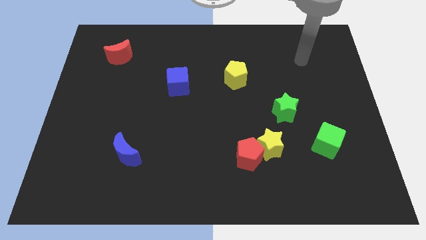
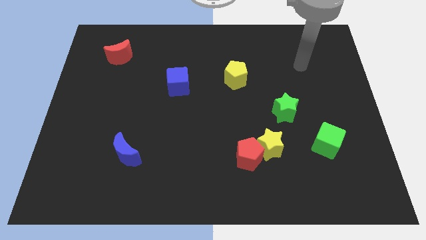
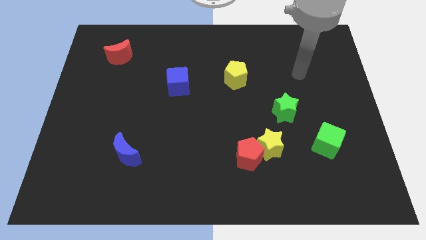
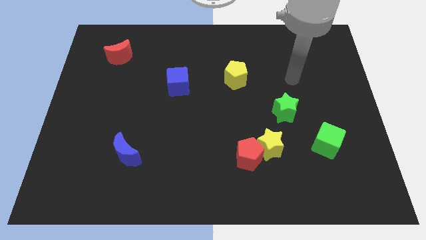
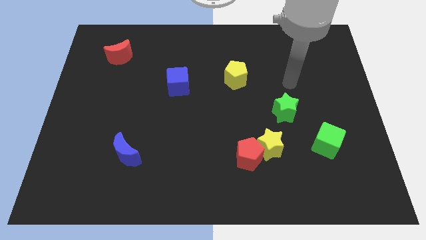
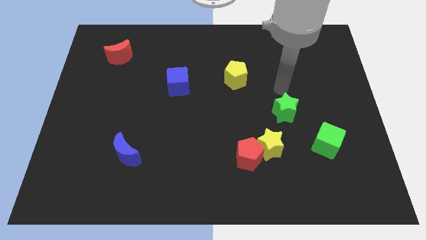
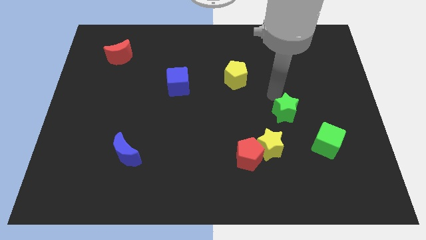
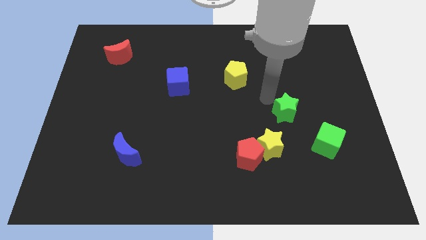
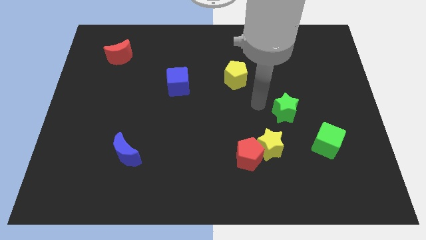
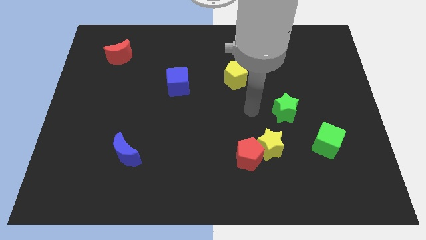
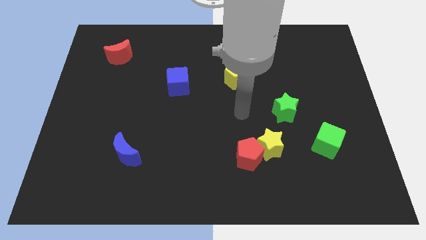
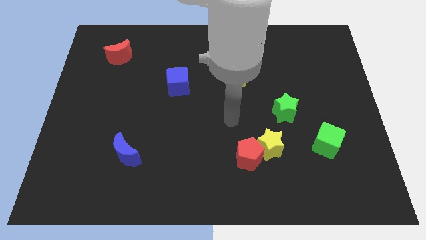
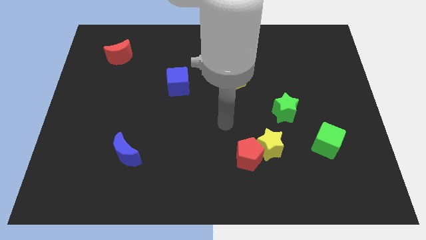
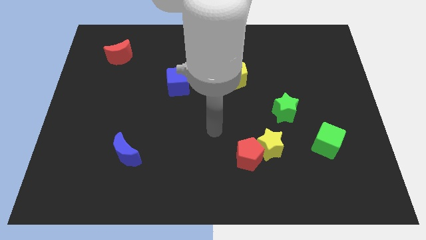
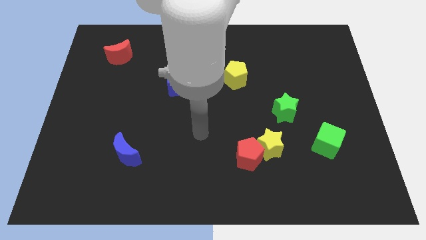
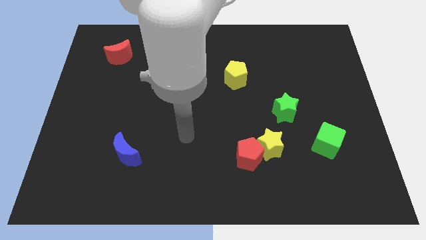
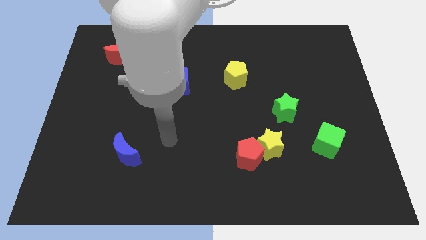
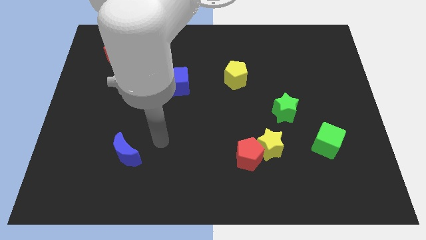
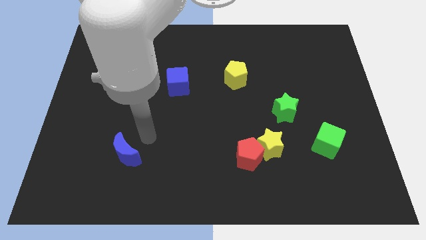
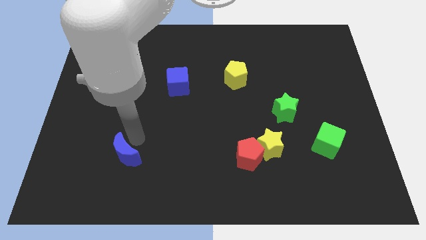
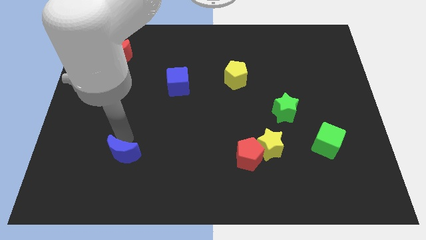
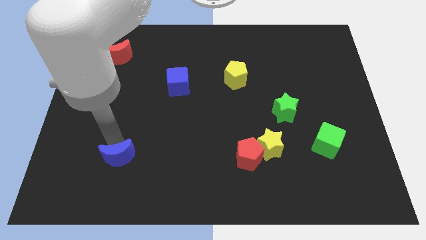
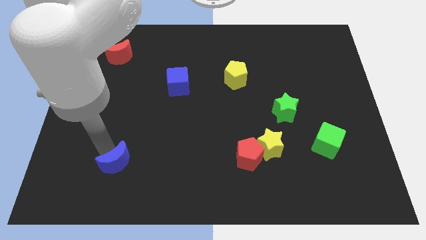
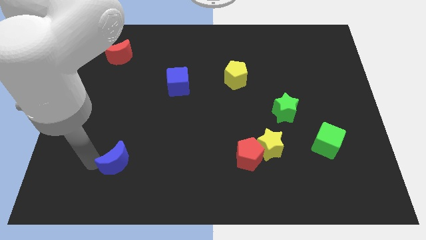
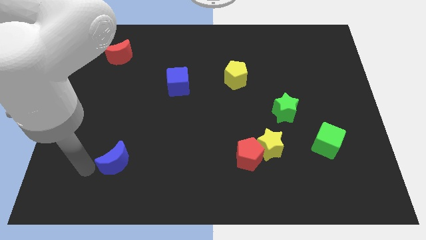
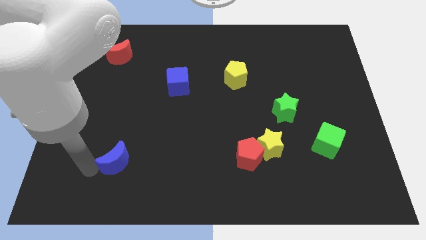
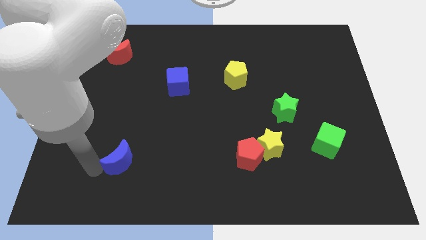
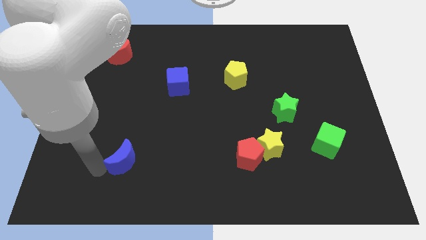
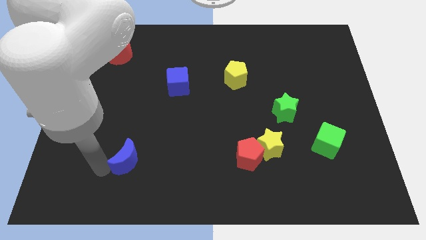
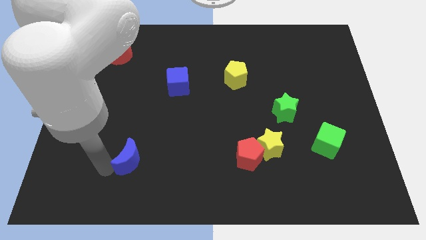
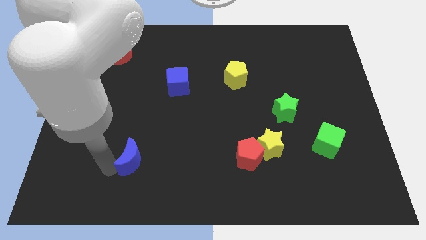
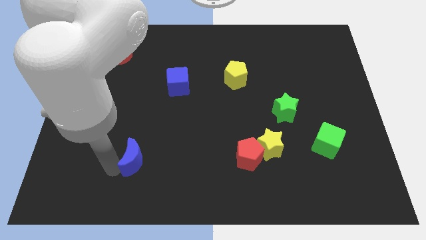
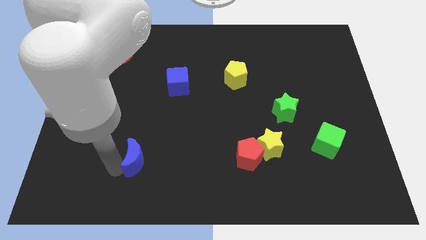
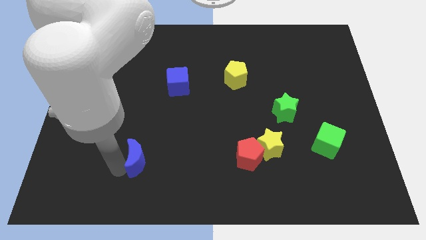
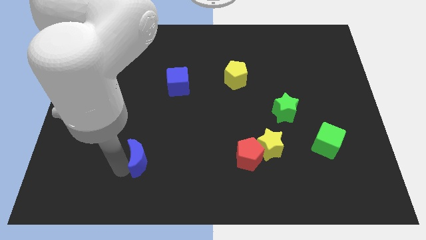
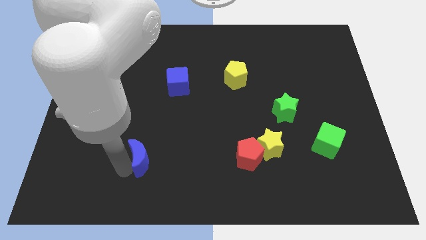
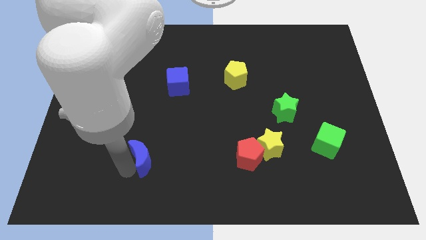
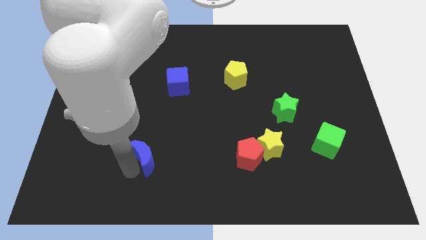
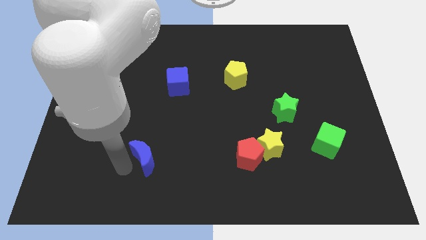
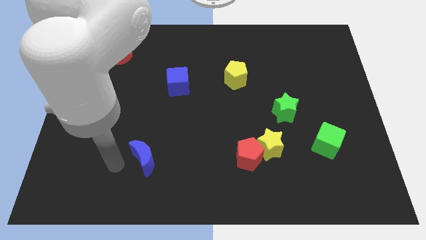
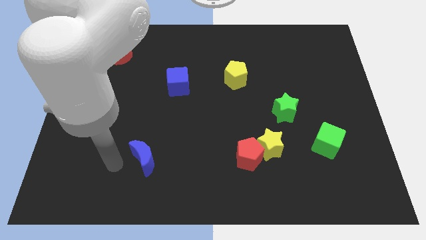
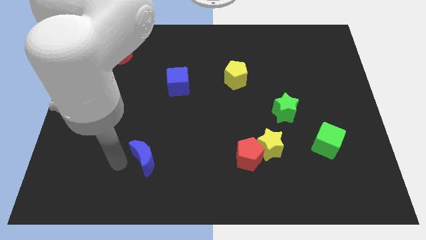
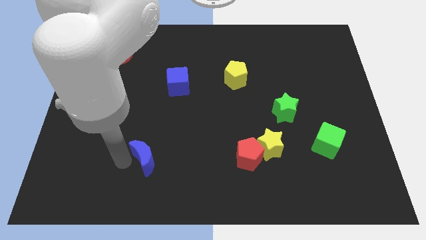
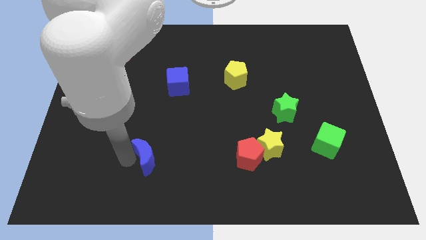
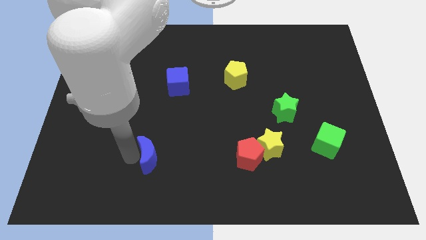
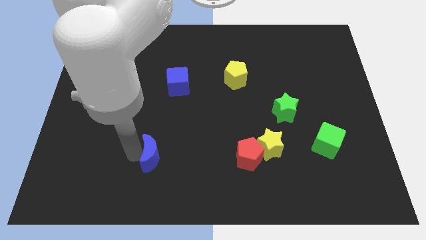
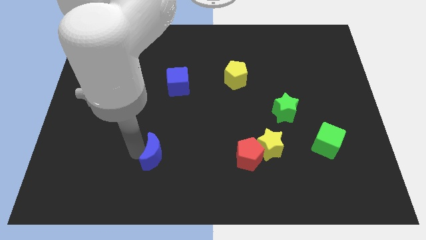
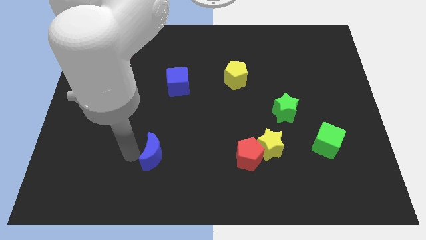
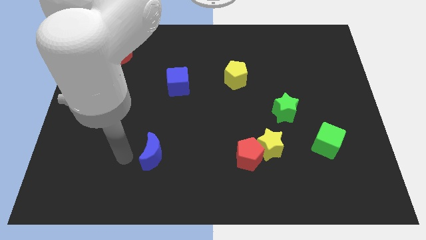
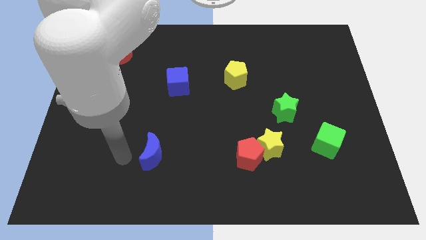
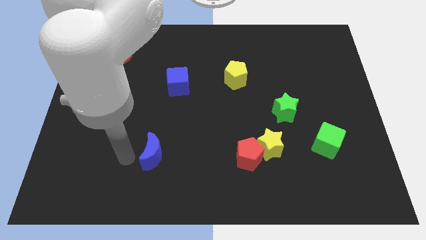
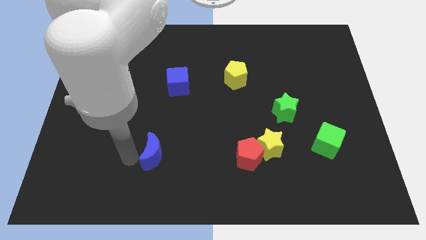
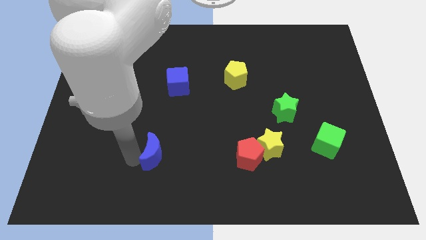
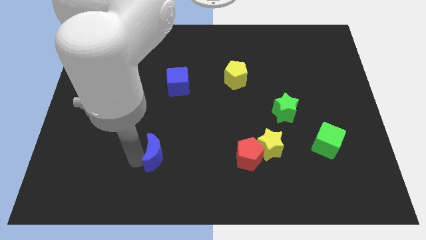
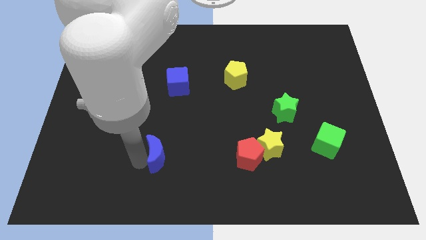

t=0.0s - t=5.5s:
slightly slide the blue moon to the right

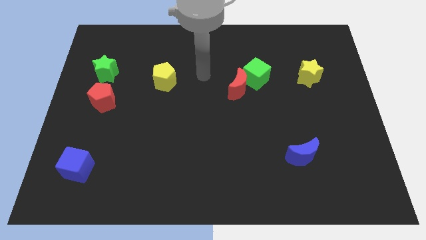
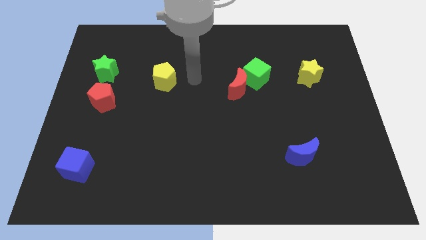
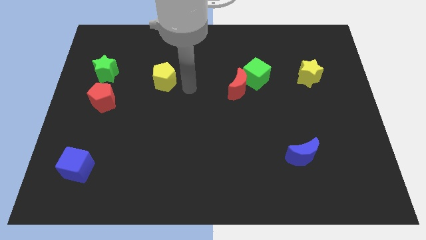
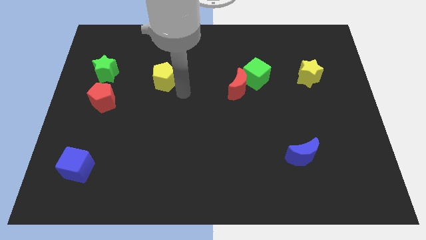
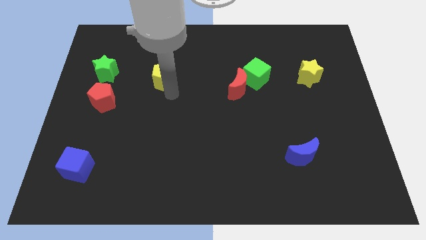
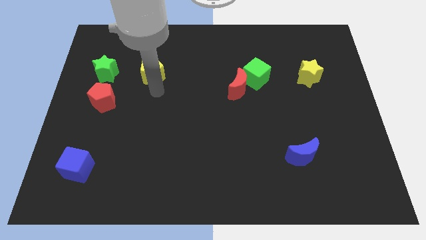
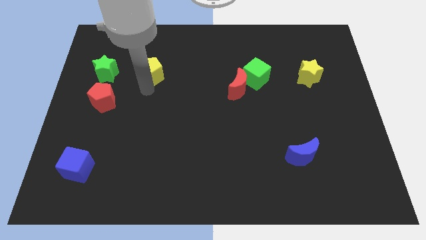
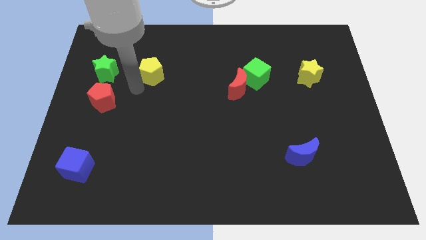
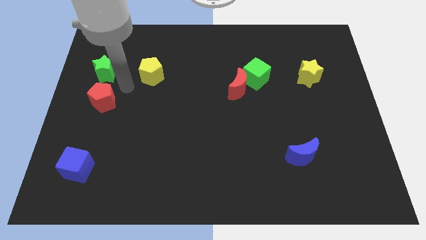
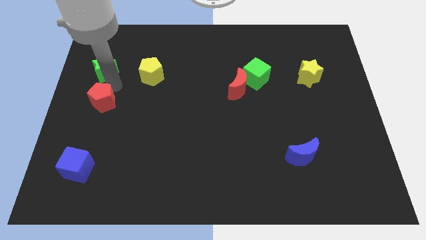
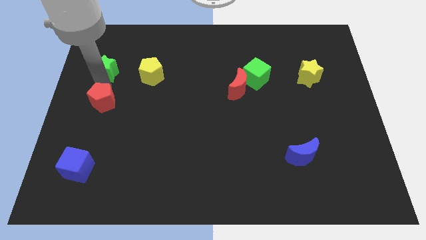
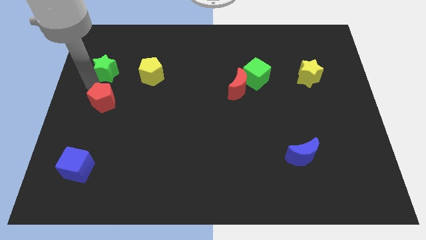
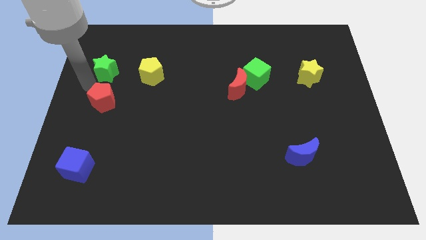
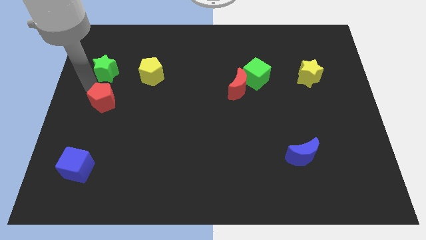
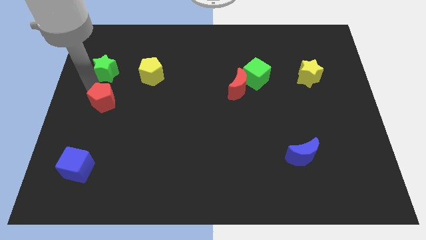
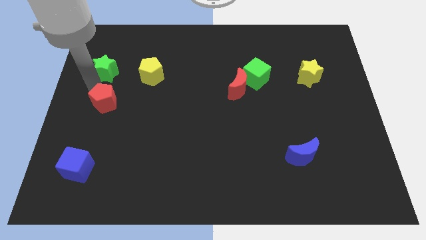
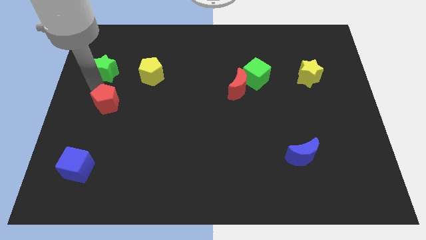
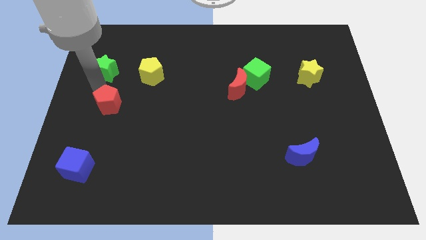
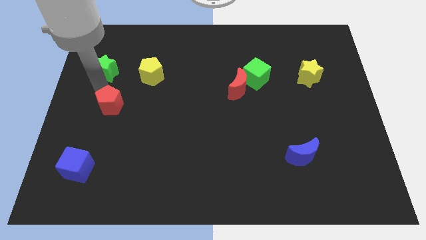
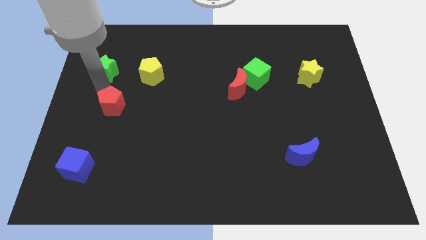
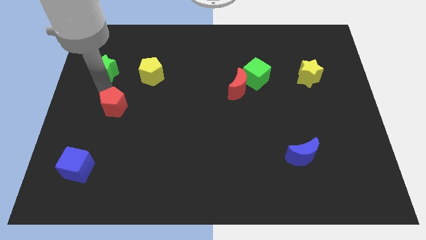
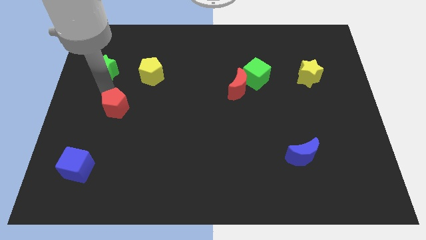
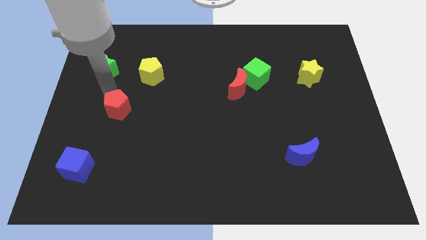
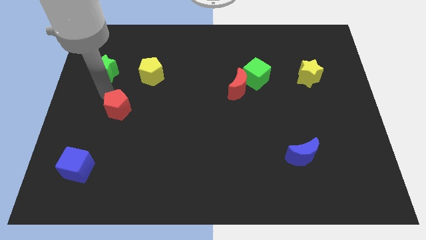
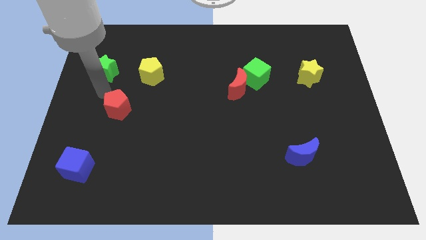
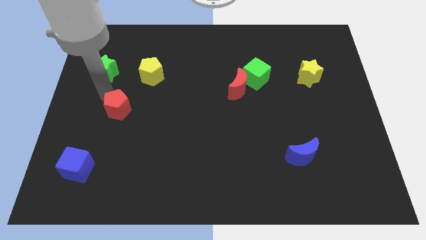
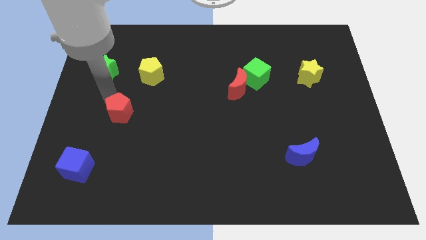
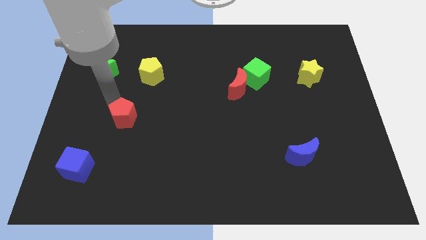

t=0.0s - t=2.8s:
move the red pentagon somewhat down and then right
